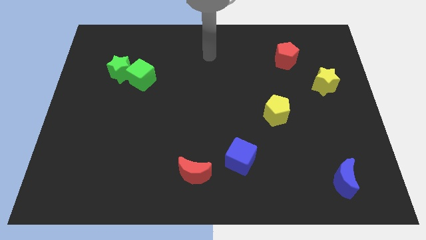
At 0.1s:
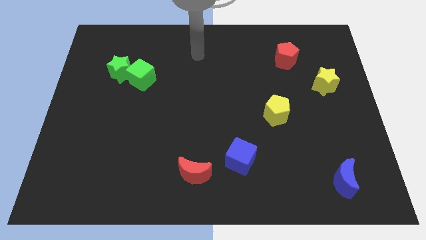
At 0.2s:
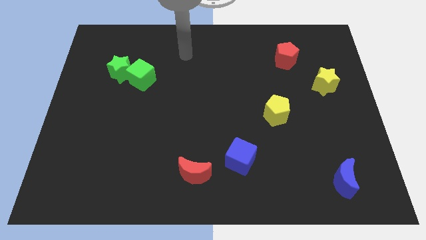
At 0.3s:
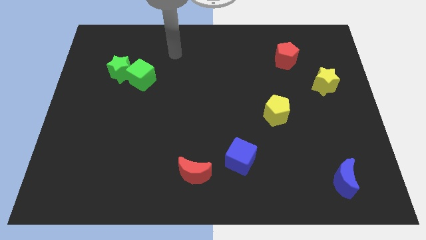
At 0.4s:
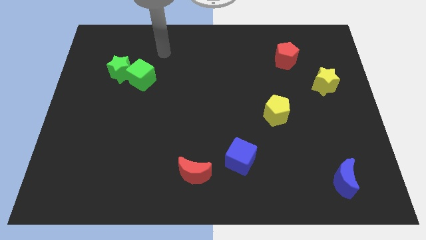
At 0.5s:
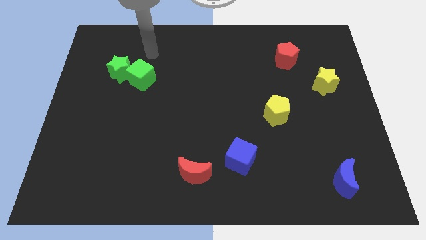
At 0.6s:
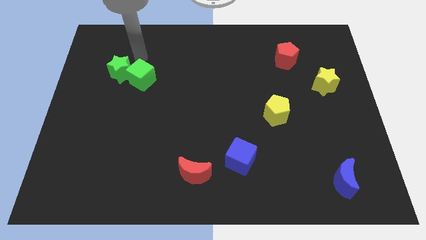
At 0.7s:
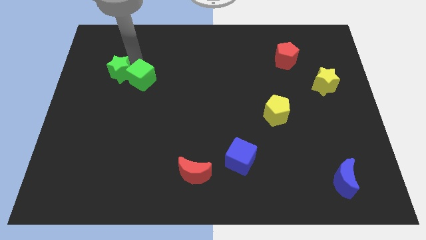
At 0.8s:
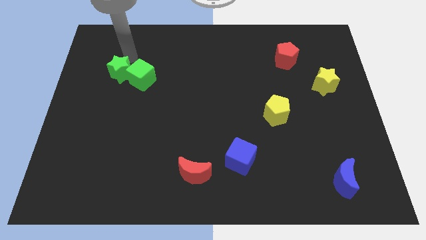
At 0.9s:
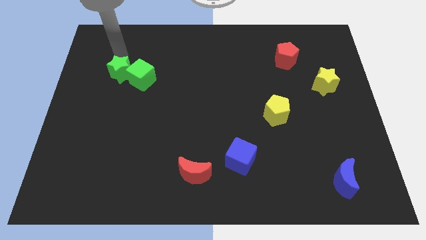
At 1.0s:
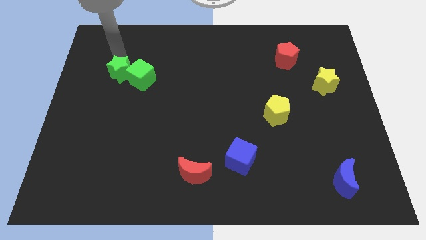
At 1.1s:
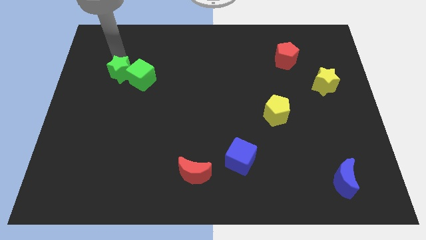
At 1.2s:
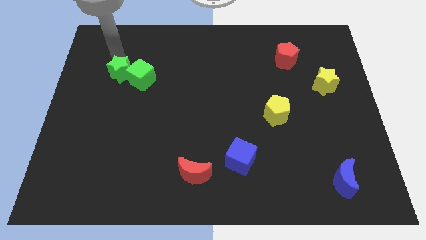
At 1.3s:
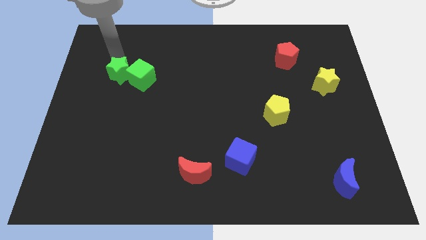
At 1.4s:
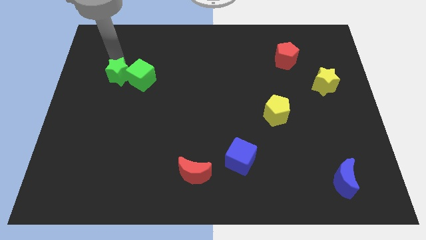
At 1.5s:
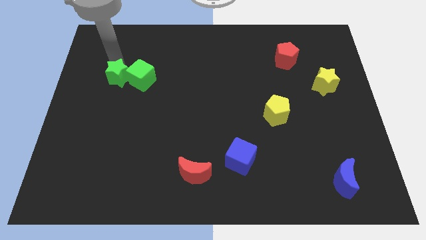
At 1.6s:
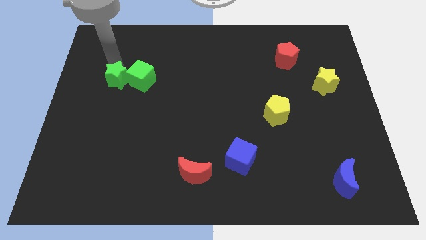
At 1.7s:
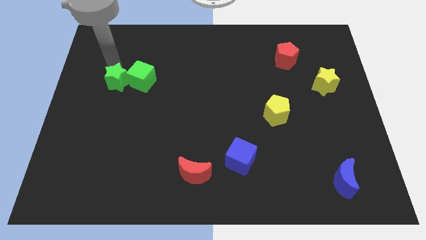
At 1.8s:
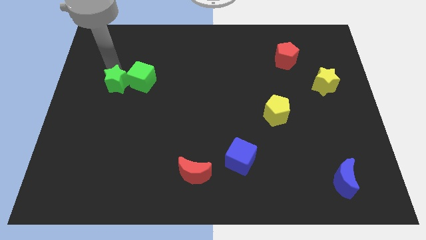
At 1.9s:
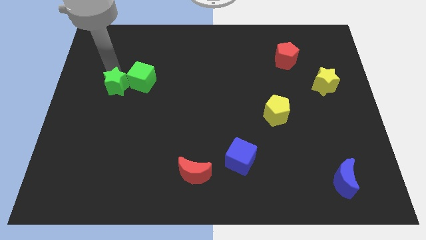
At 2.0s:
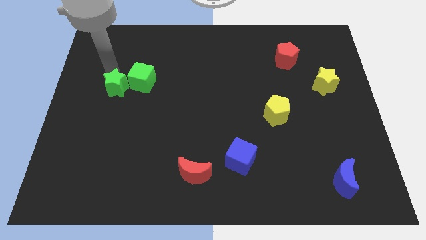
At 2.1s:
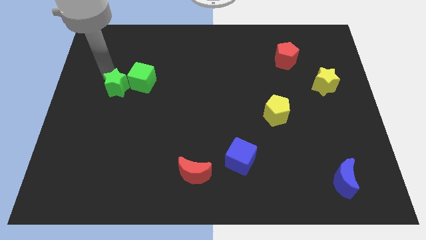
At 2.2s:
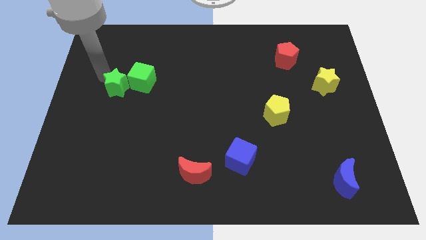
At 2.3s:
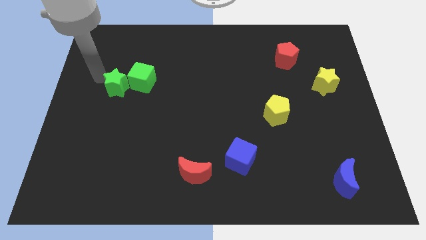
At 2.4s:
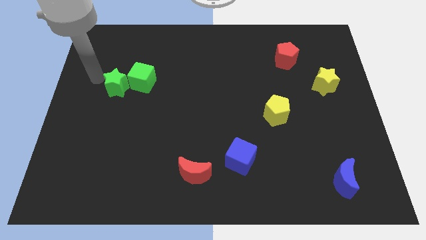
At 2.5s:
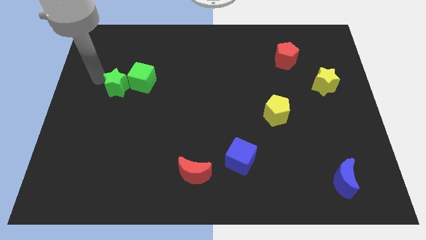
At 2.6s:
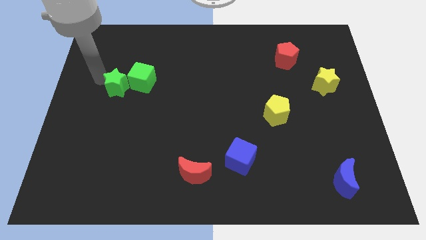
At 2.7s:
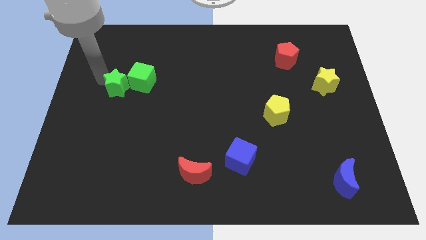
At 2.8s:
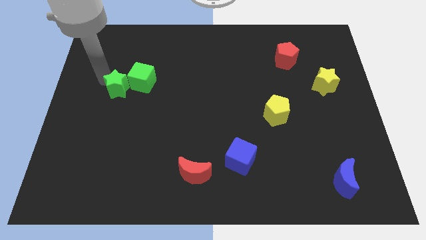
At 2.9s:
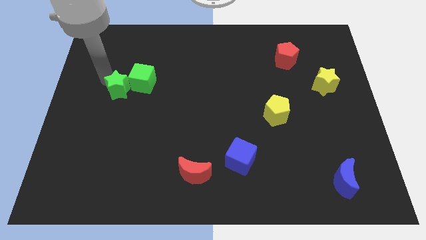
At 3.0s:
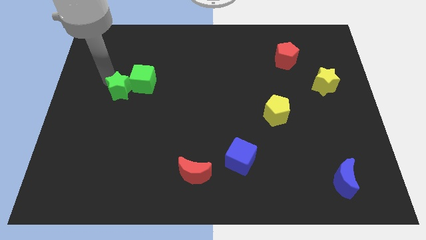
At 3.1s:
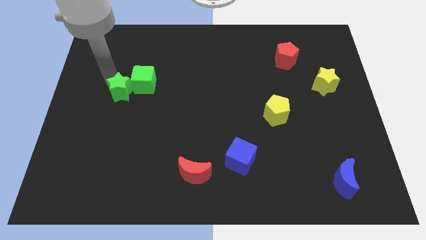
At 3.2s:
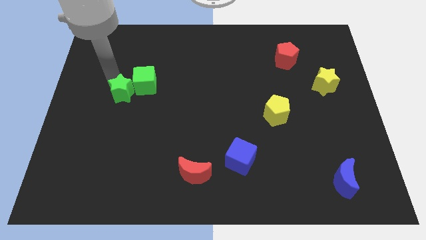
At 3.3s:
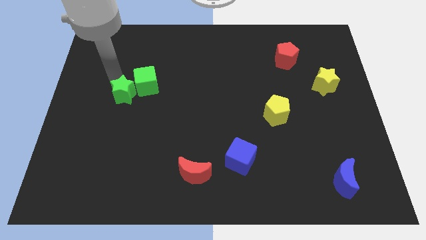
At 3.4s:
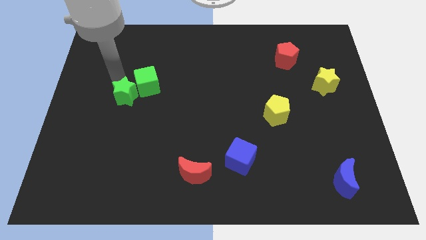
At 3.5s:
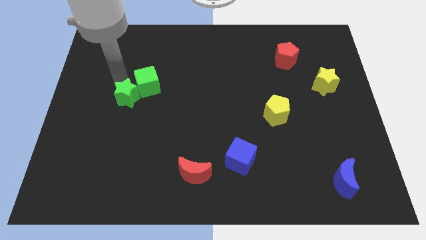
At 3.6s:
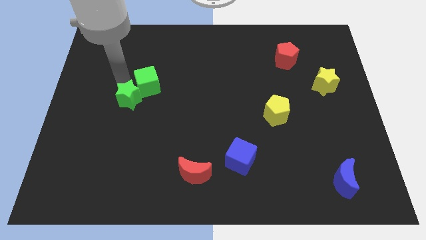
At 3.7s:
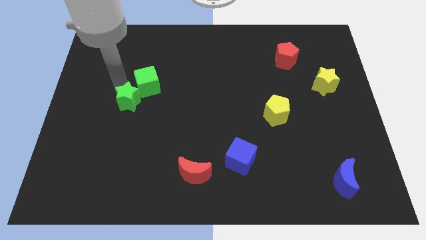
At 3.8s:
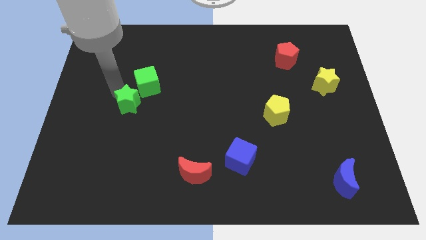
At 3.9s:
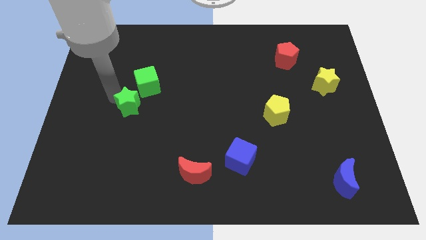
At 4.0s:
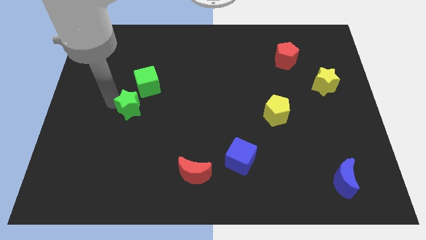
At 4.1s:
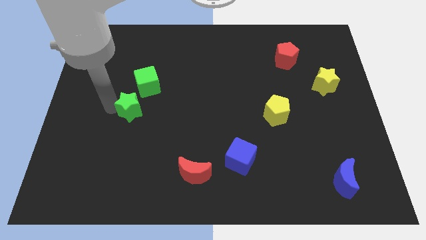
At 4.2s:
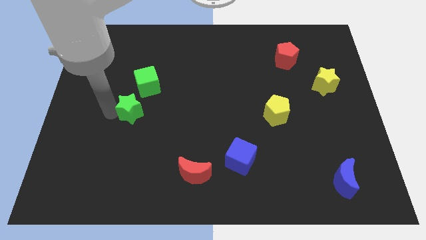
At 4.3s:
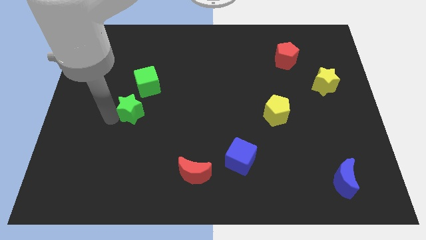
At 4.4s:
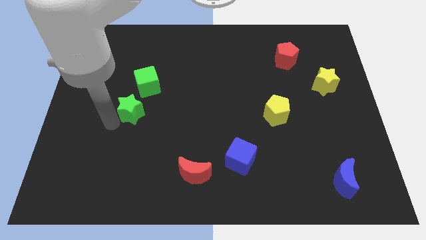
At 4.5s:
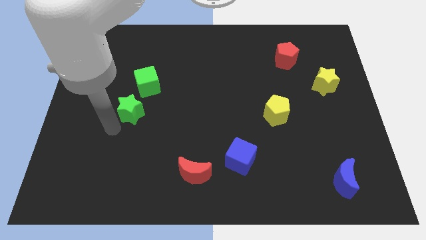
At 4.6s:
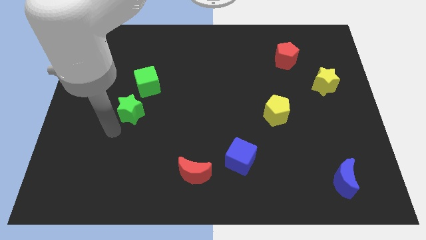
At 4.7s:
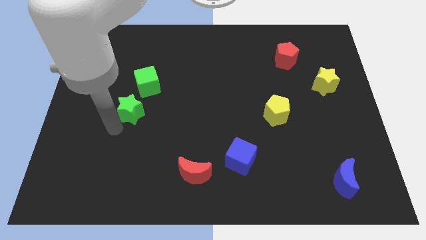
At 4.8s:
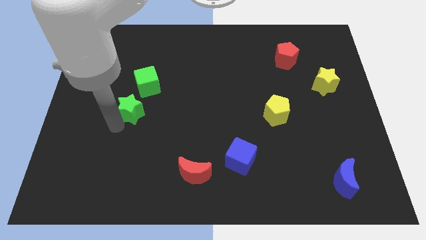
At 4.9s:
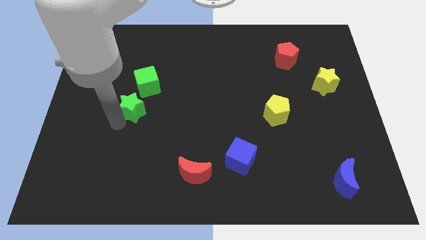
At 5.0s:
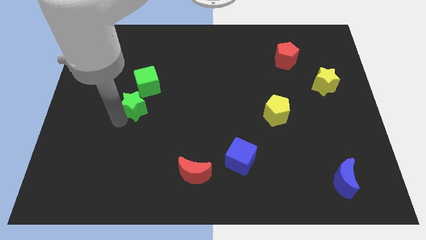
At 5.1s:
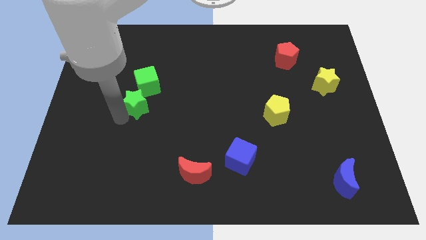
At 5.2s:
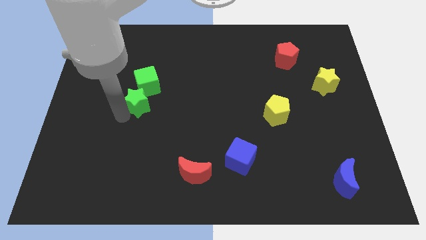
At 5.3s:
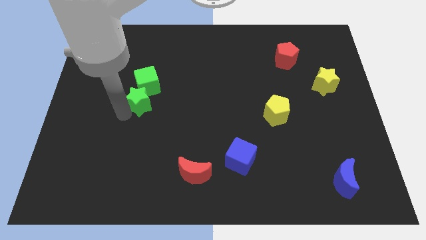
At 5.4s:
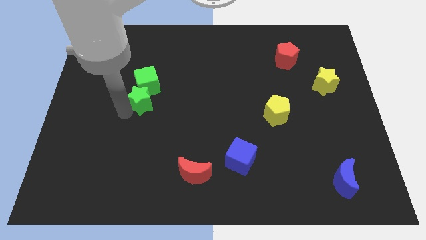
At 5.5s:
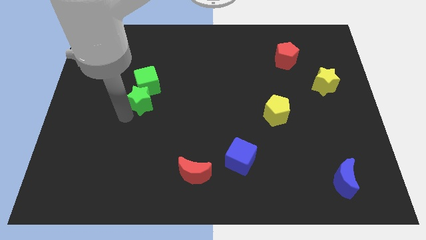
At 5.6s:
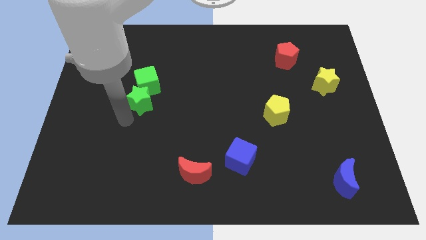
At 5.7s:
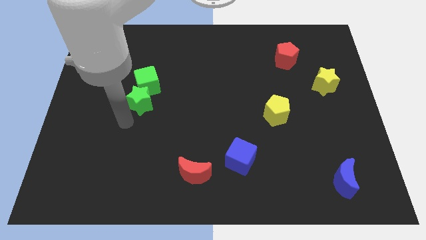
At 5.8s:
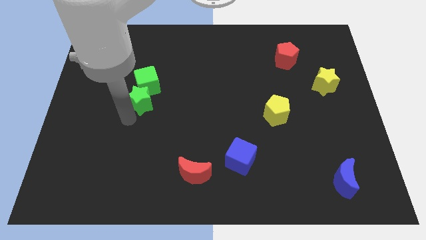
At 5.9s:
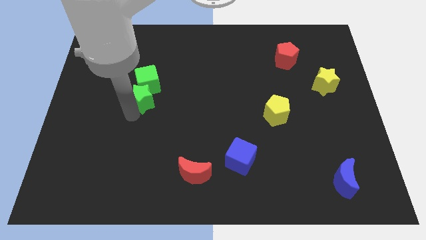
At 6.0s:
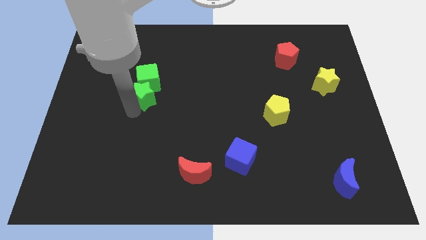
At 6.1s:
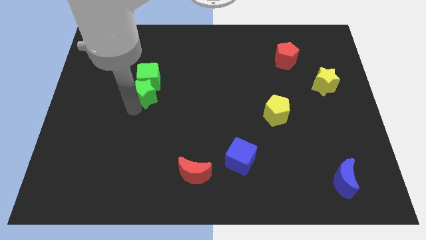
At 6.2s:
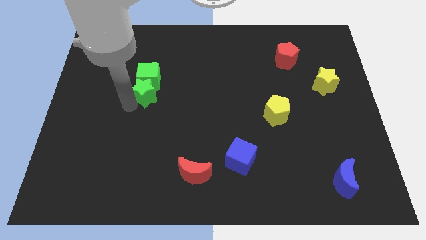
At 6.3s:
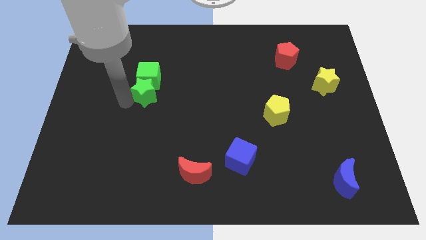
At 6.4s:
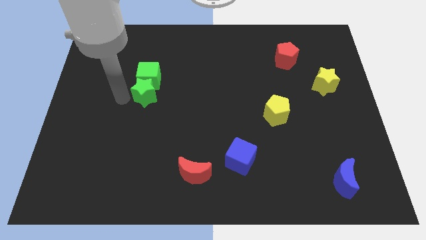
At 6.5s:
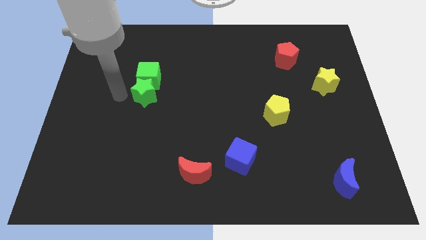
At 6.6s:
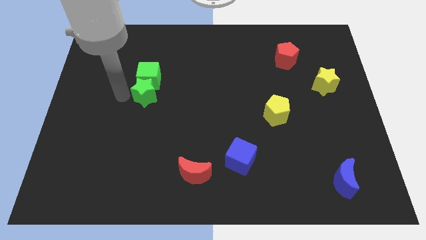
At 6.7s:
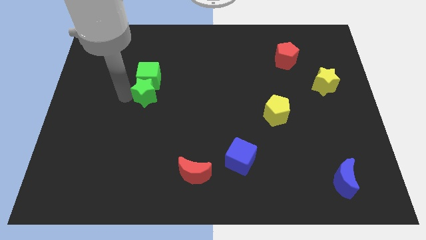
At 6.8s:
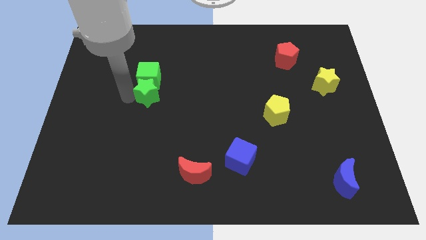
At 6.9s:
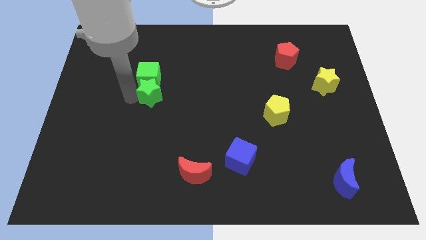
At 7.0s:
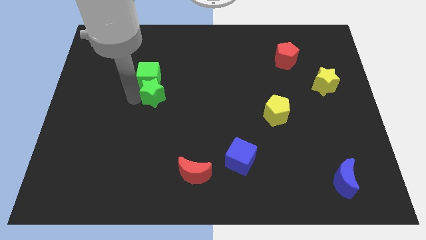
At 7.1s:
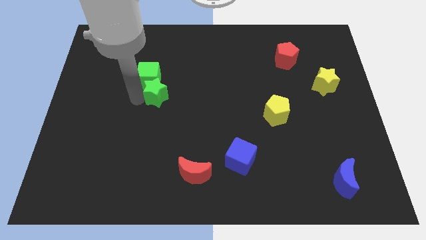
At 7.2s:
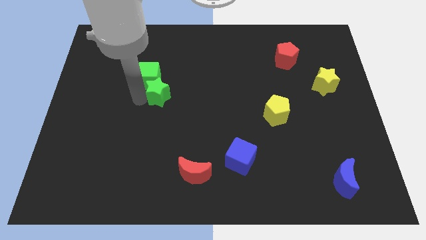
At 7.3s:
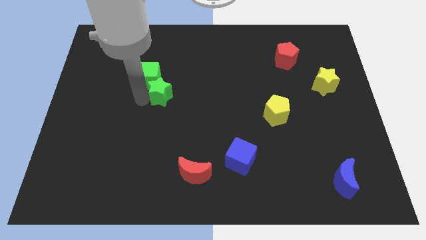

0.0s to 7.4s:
push the green star to the center
